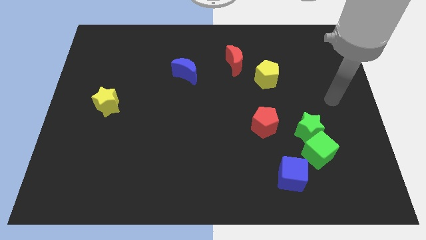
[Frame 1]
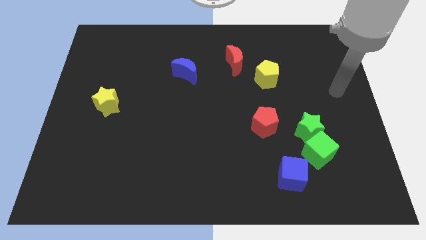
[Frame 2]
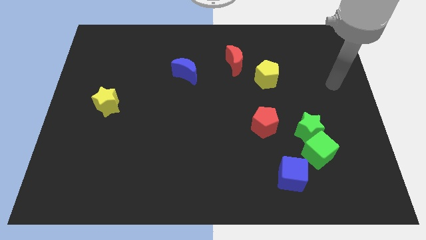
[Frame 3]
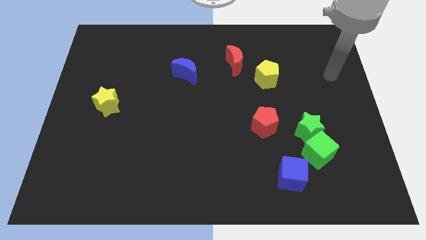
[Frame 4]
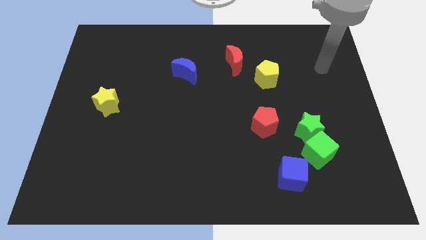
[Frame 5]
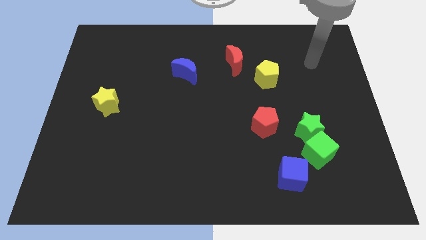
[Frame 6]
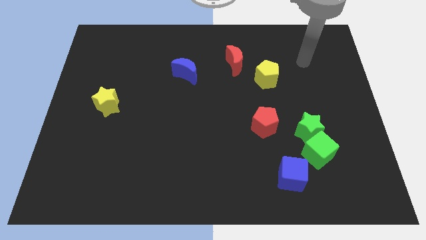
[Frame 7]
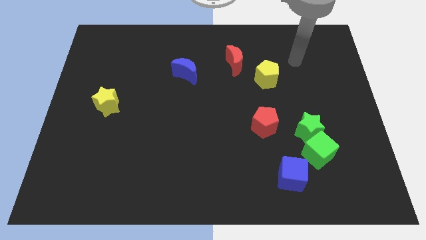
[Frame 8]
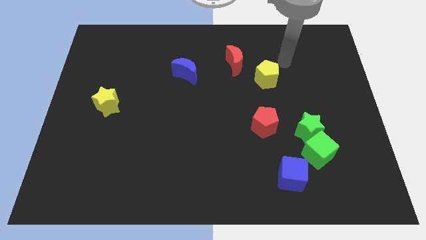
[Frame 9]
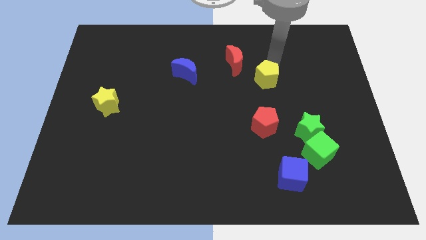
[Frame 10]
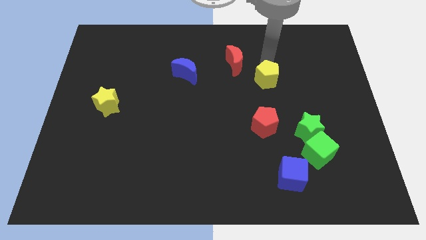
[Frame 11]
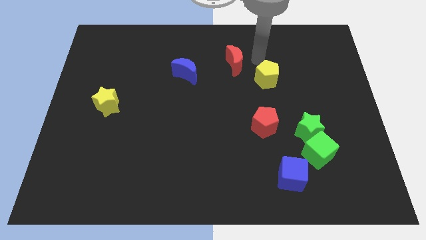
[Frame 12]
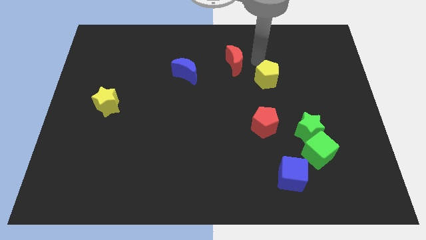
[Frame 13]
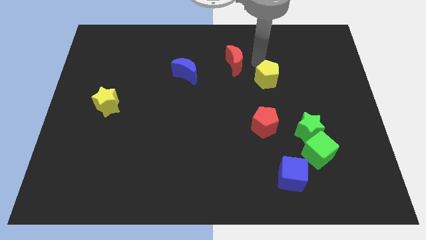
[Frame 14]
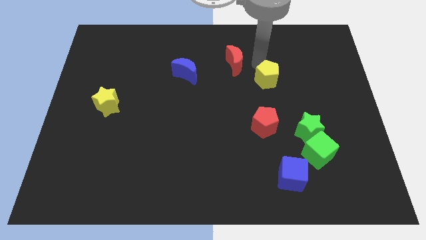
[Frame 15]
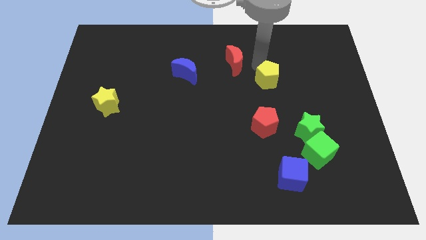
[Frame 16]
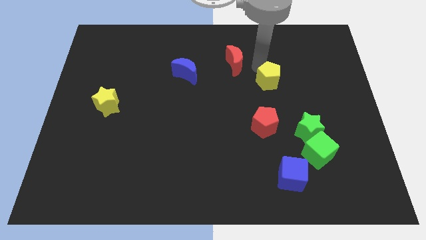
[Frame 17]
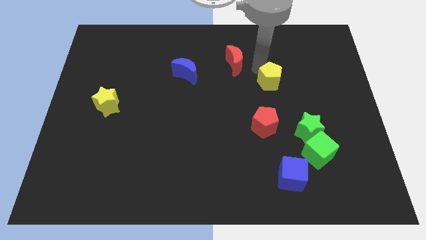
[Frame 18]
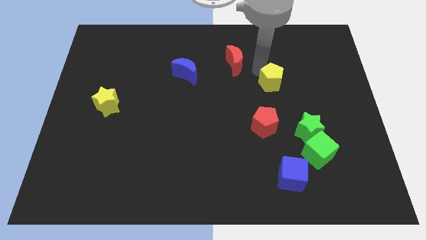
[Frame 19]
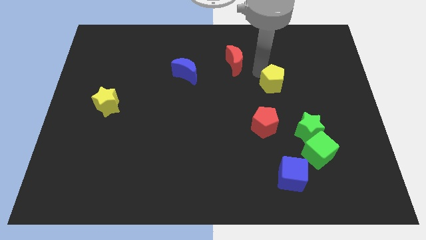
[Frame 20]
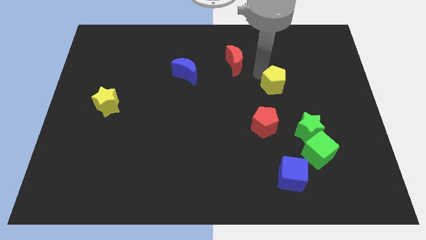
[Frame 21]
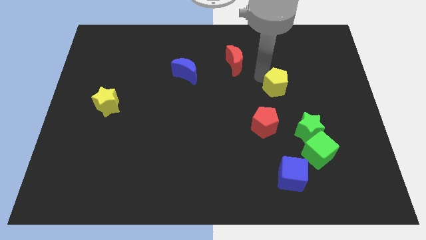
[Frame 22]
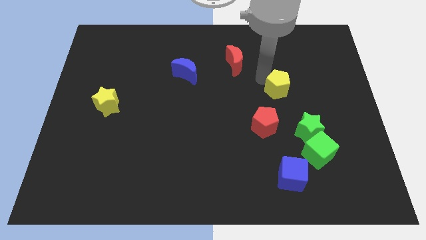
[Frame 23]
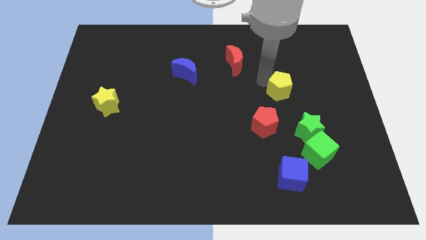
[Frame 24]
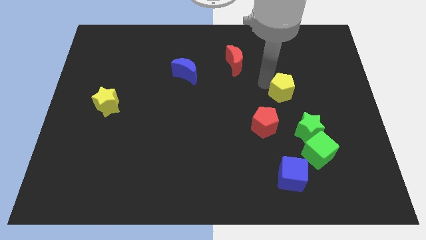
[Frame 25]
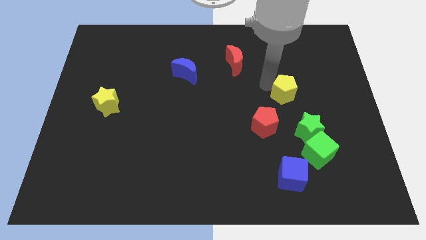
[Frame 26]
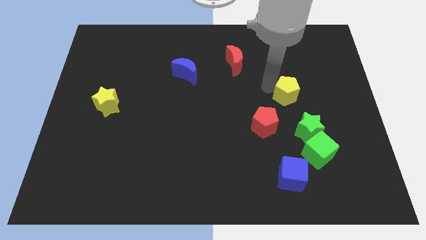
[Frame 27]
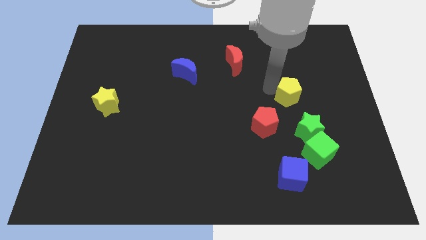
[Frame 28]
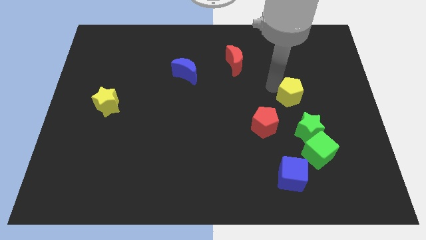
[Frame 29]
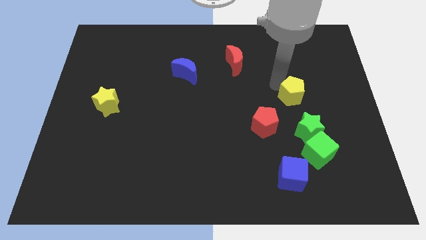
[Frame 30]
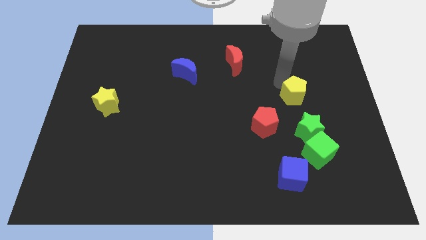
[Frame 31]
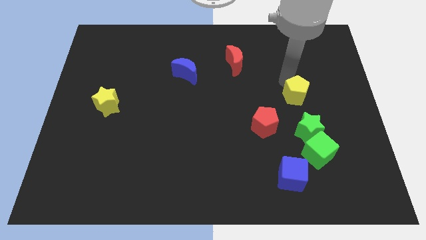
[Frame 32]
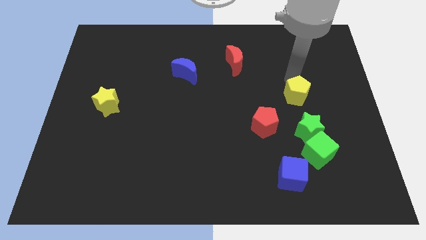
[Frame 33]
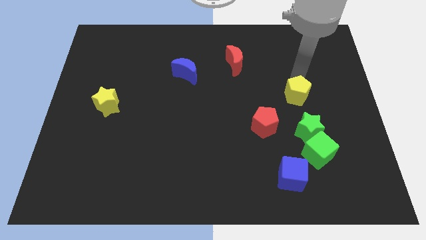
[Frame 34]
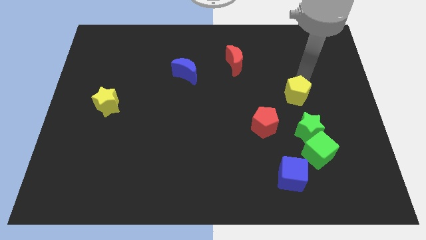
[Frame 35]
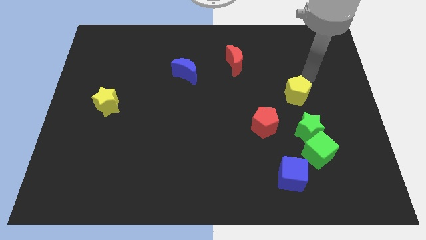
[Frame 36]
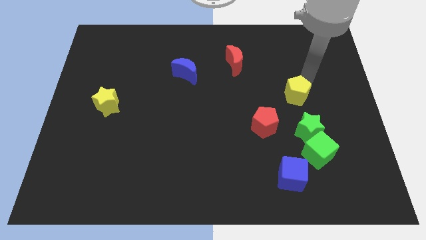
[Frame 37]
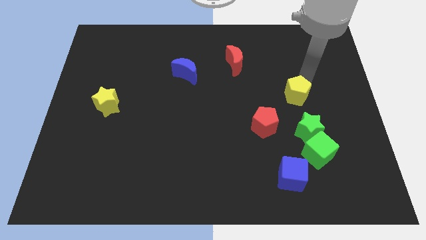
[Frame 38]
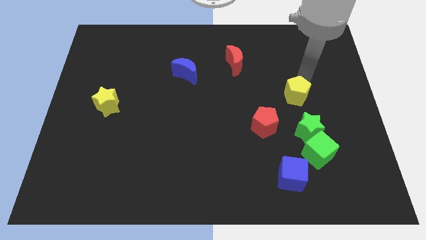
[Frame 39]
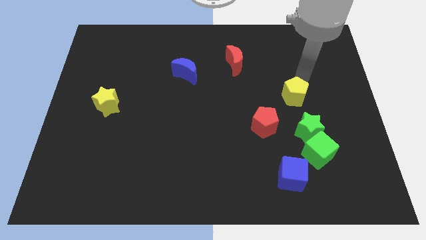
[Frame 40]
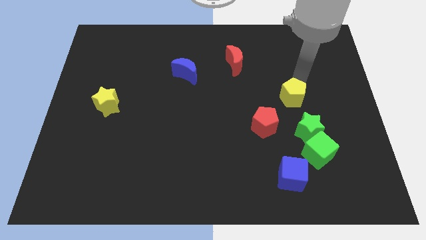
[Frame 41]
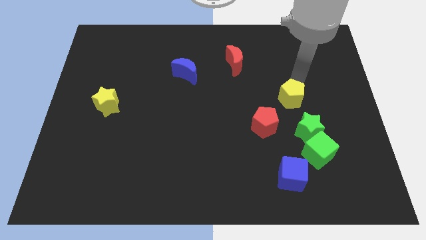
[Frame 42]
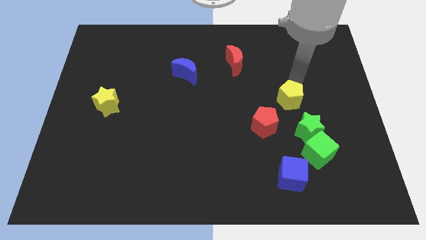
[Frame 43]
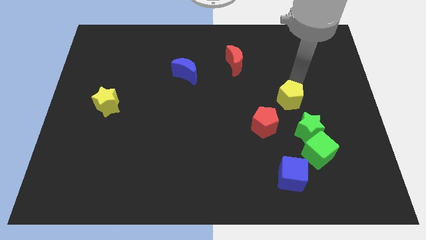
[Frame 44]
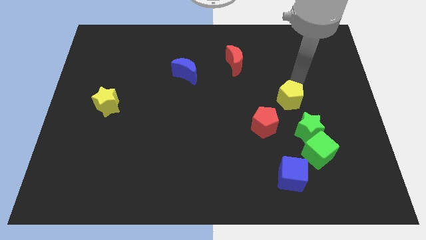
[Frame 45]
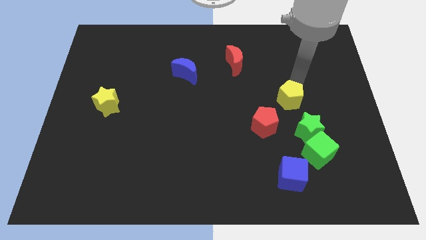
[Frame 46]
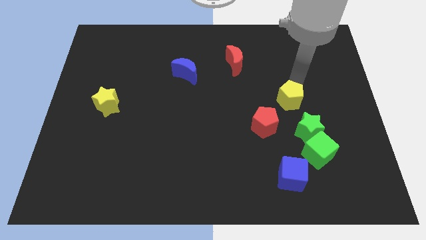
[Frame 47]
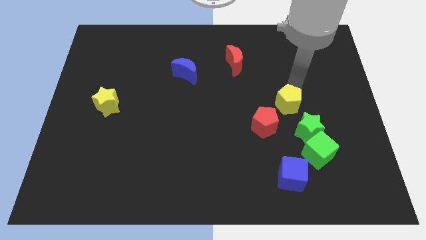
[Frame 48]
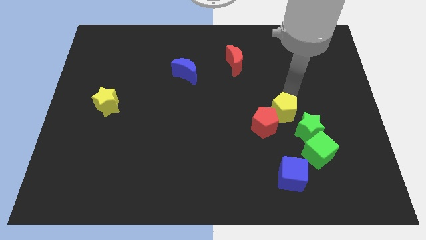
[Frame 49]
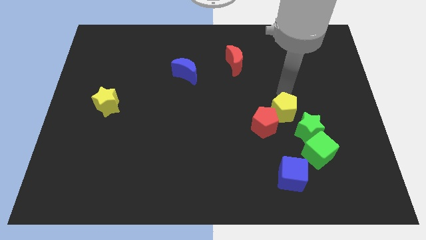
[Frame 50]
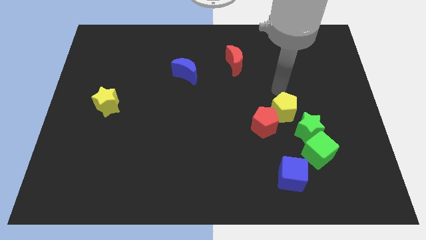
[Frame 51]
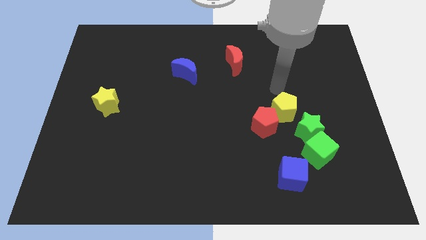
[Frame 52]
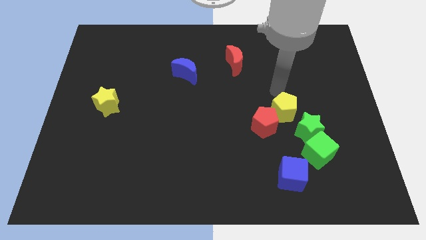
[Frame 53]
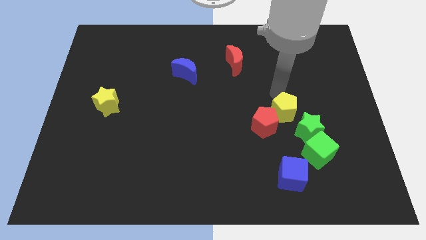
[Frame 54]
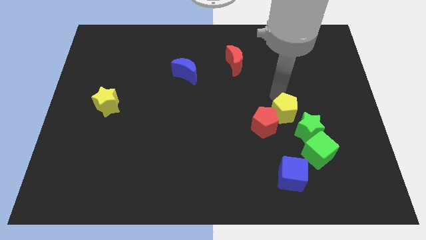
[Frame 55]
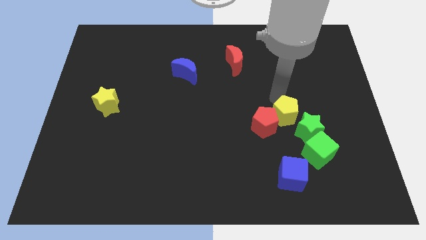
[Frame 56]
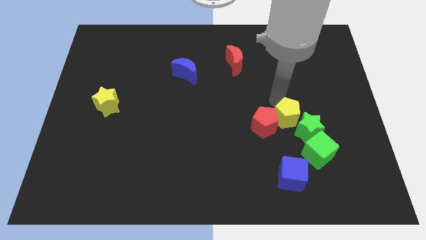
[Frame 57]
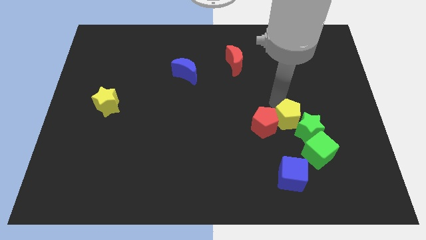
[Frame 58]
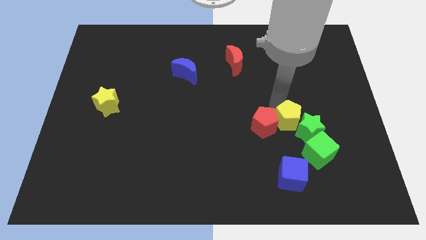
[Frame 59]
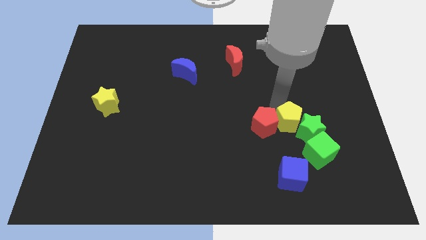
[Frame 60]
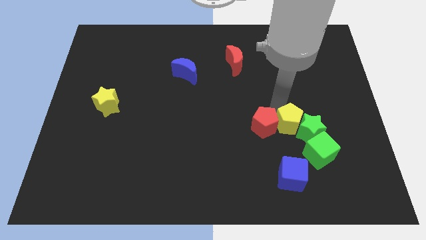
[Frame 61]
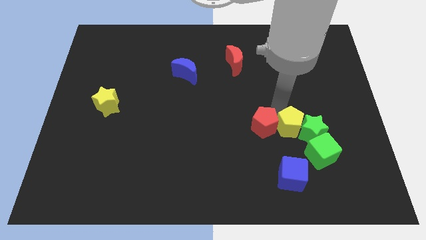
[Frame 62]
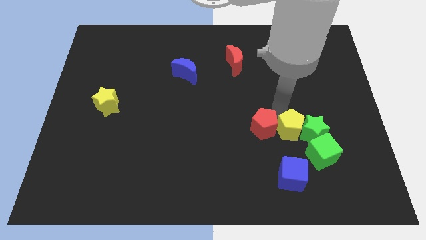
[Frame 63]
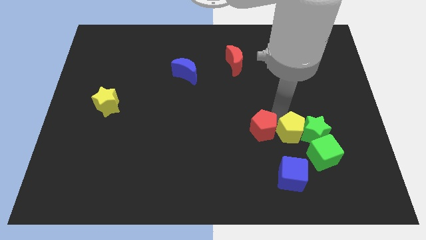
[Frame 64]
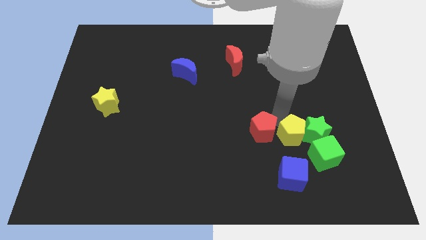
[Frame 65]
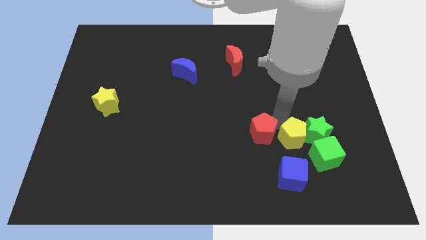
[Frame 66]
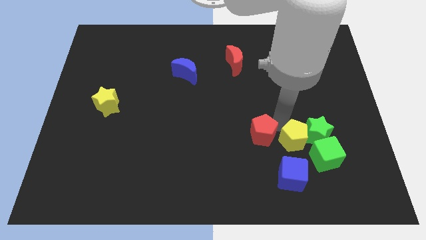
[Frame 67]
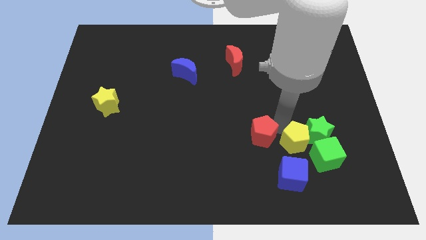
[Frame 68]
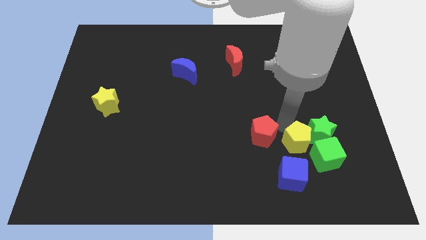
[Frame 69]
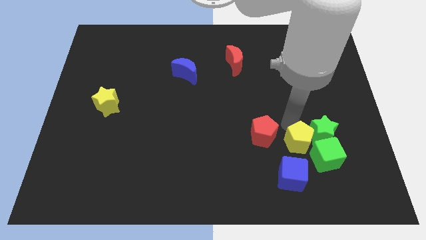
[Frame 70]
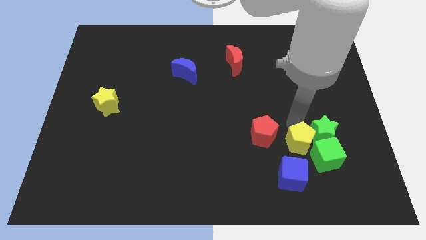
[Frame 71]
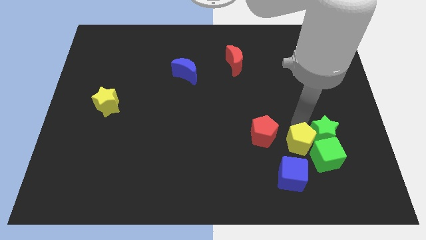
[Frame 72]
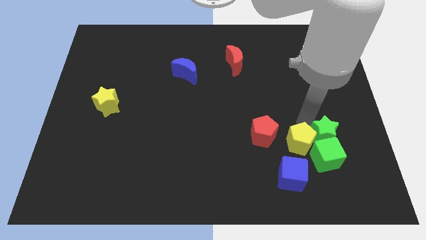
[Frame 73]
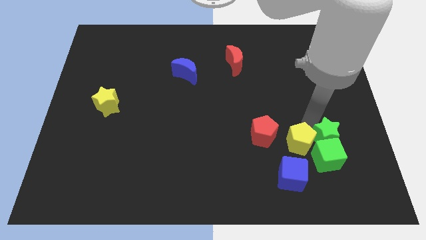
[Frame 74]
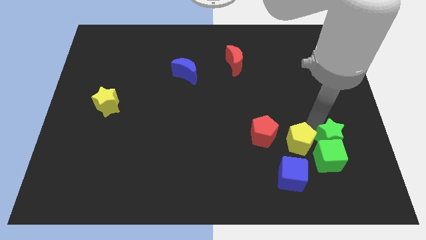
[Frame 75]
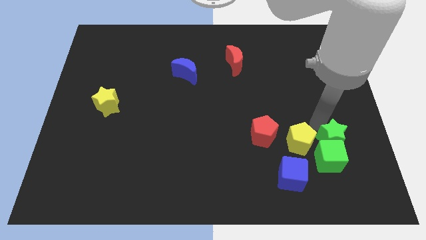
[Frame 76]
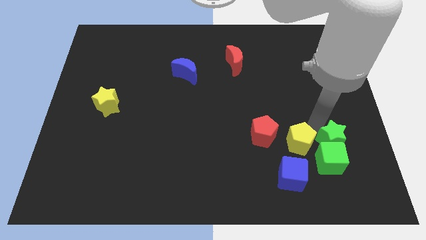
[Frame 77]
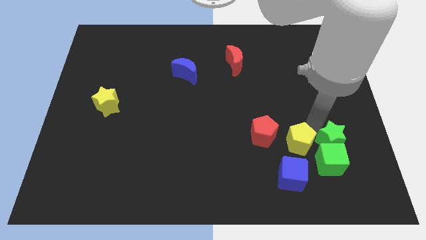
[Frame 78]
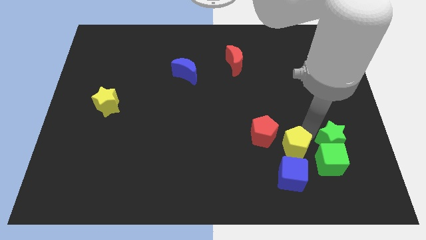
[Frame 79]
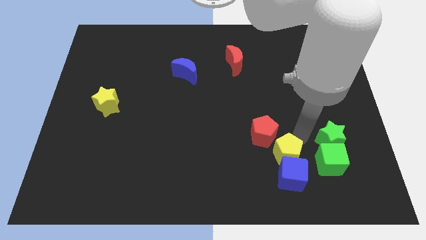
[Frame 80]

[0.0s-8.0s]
slide the yellow pentagon next to the blue cube
